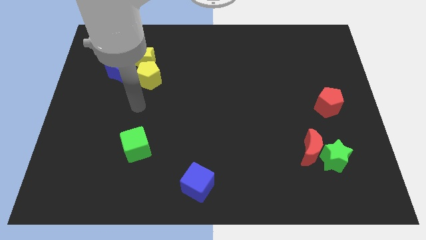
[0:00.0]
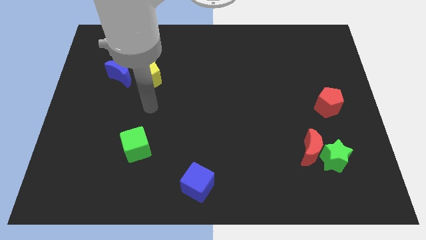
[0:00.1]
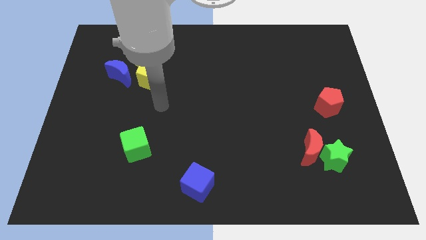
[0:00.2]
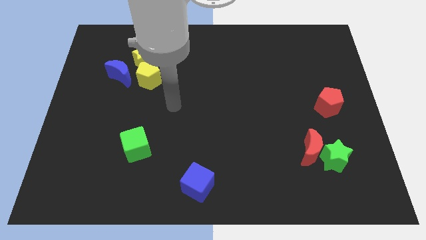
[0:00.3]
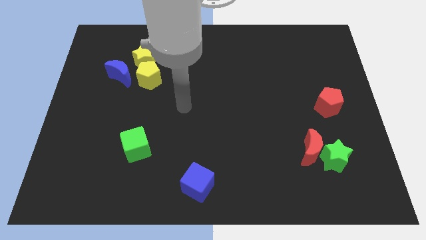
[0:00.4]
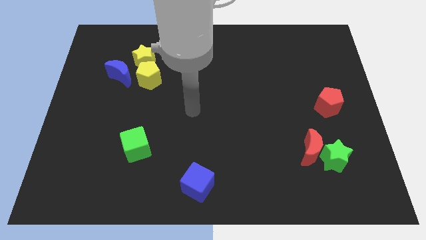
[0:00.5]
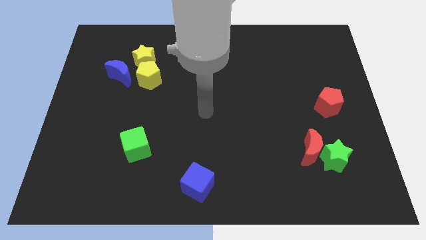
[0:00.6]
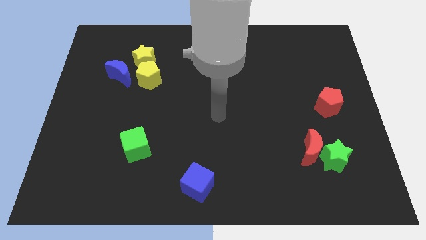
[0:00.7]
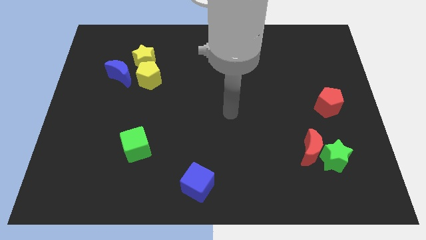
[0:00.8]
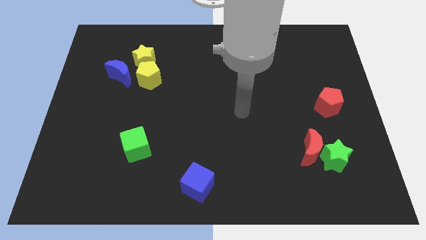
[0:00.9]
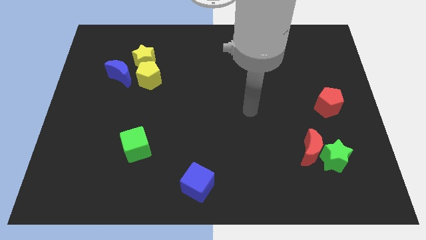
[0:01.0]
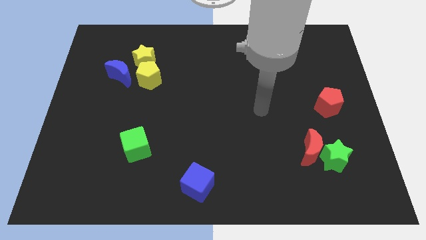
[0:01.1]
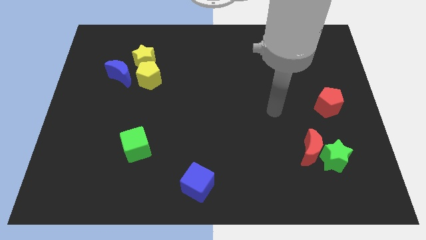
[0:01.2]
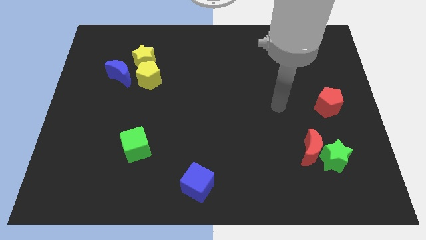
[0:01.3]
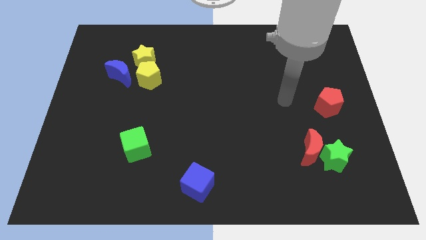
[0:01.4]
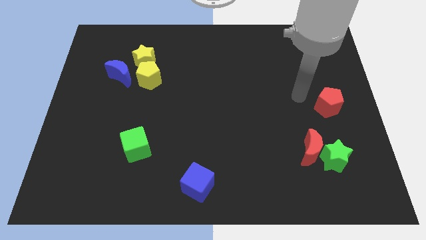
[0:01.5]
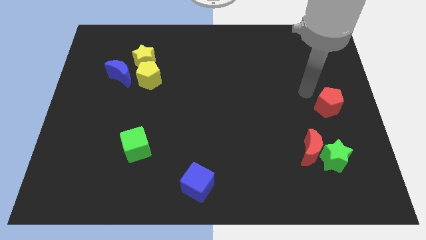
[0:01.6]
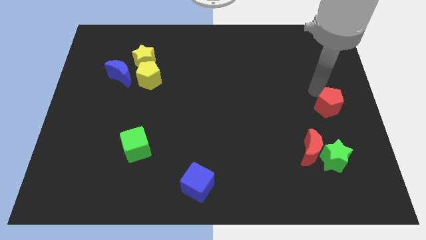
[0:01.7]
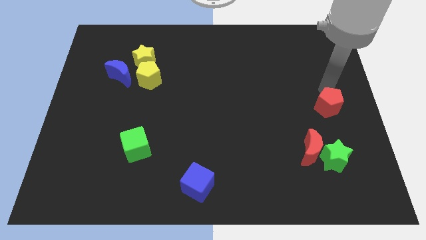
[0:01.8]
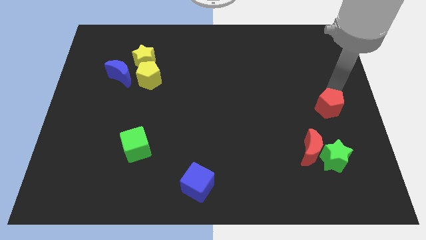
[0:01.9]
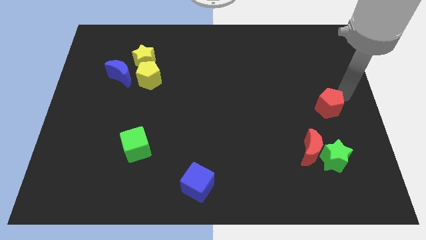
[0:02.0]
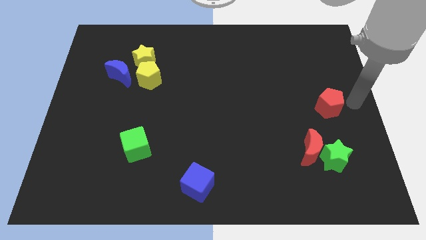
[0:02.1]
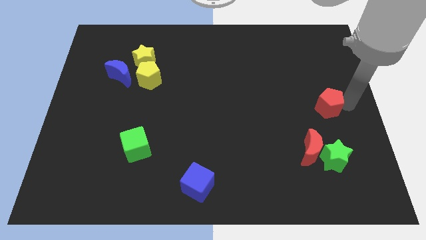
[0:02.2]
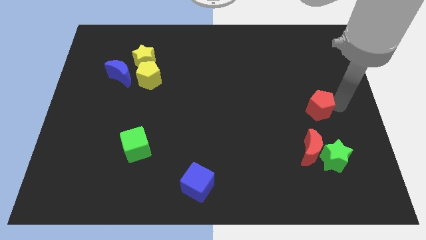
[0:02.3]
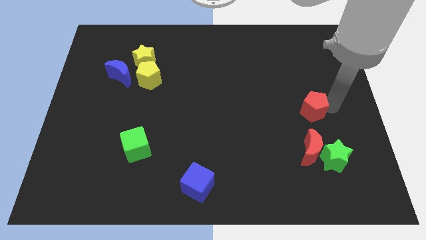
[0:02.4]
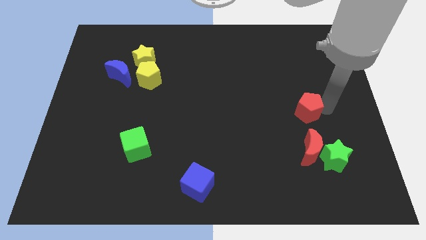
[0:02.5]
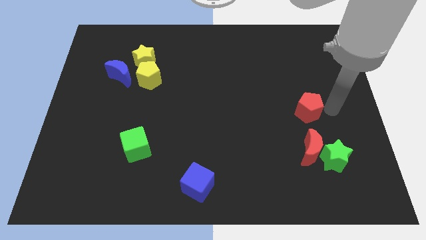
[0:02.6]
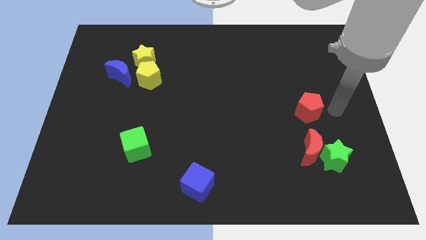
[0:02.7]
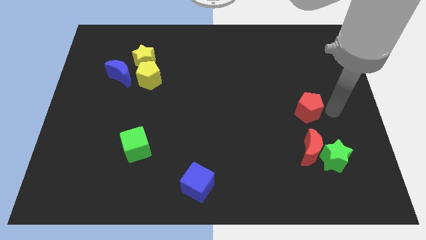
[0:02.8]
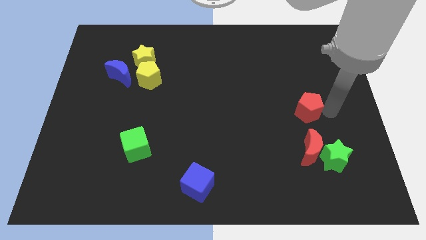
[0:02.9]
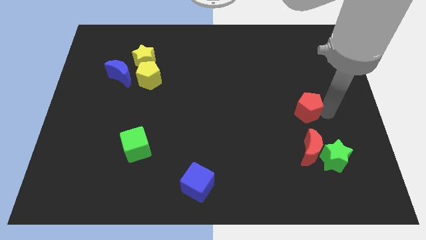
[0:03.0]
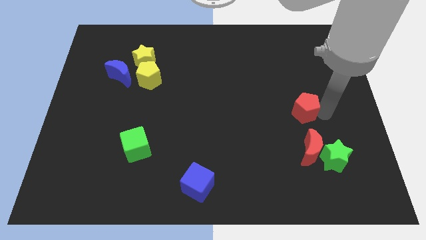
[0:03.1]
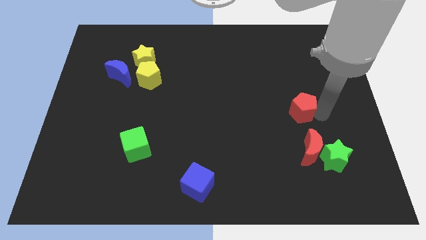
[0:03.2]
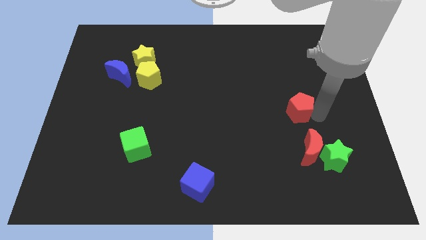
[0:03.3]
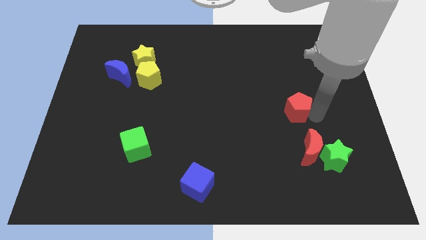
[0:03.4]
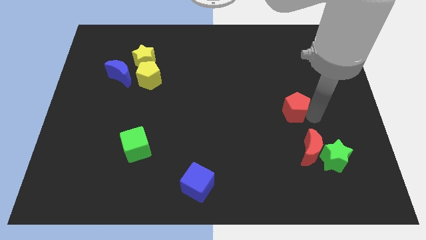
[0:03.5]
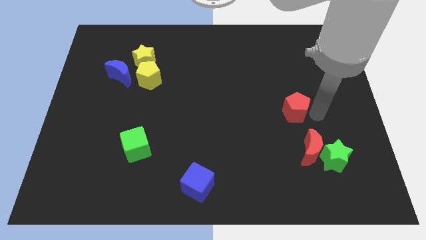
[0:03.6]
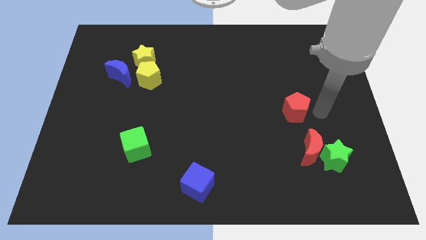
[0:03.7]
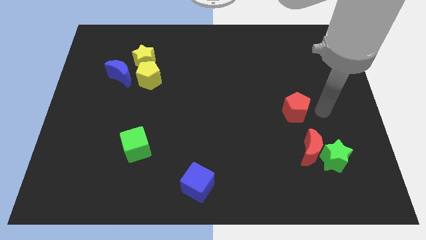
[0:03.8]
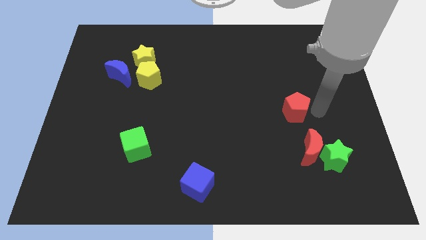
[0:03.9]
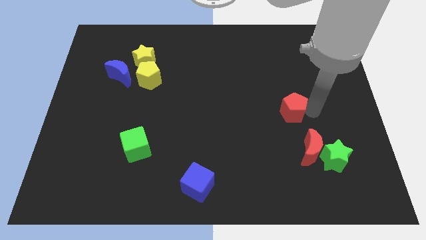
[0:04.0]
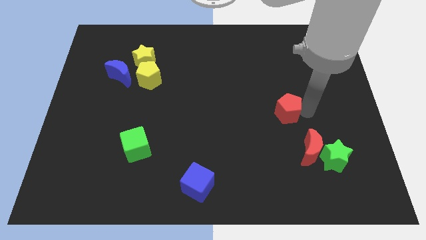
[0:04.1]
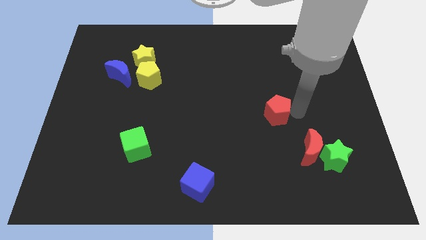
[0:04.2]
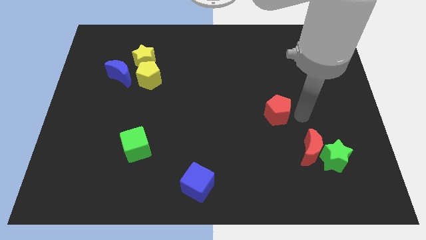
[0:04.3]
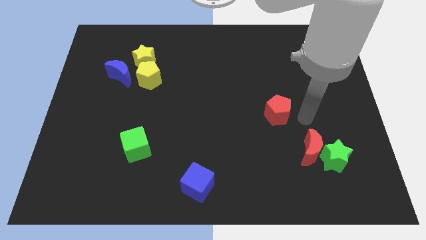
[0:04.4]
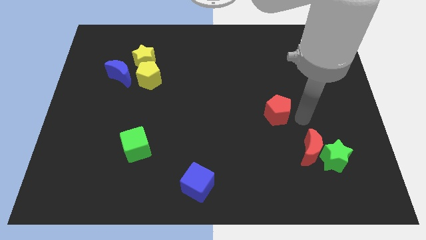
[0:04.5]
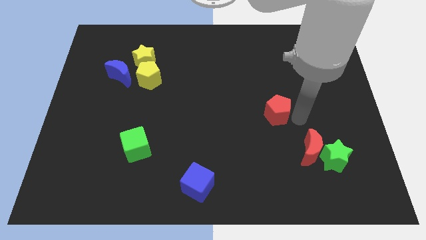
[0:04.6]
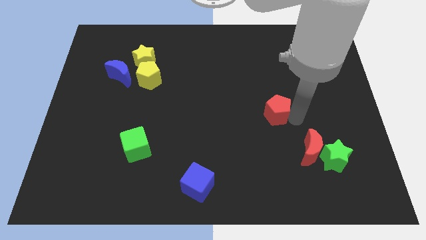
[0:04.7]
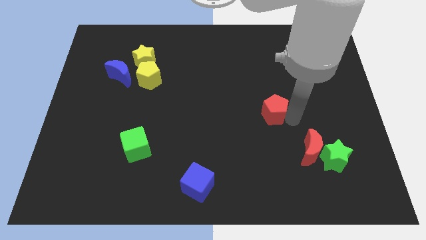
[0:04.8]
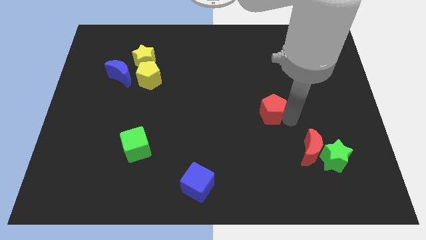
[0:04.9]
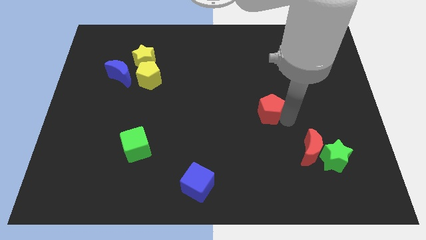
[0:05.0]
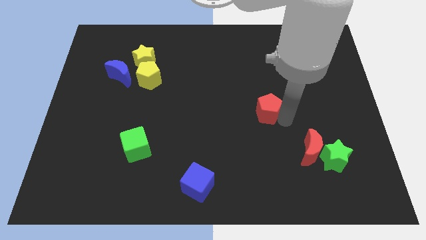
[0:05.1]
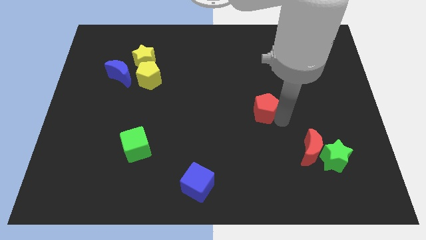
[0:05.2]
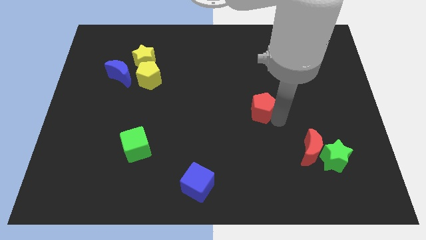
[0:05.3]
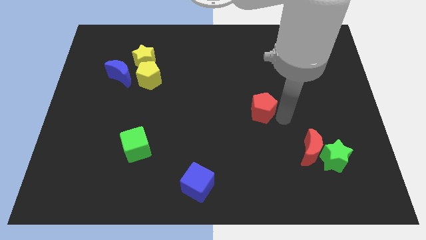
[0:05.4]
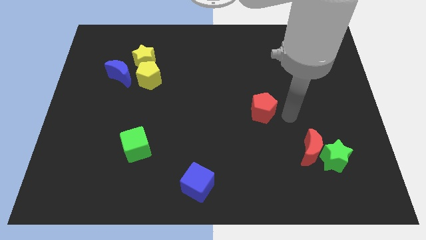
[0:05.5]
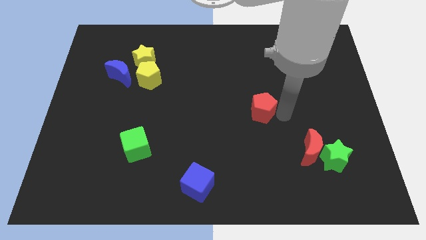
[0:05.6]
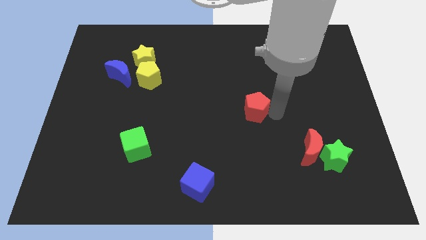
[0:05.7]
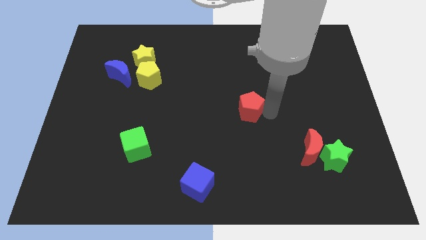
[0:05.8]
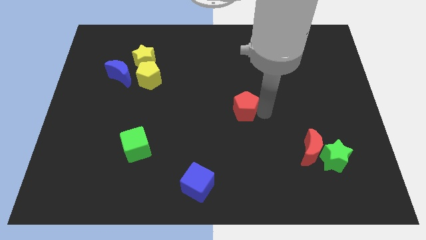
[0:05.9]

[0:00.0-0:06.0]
slide the red pentagon to the left

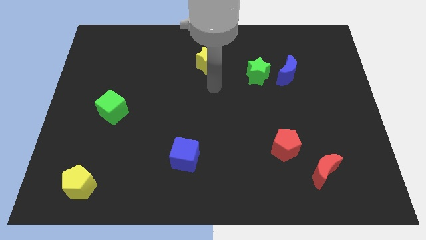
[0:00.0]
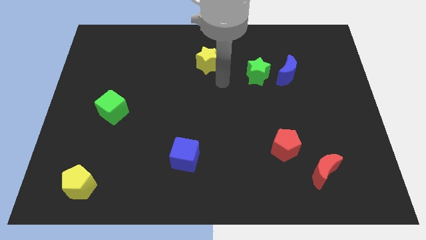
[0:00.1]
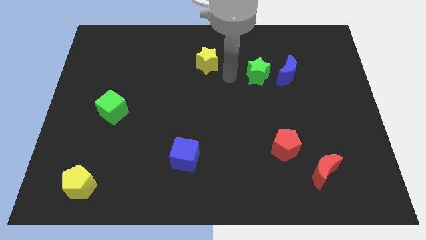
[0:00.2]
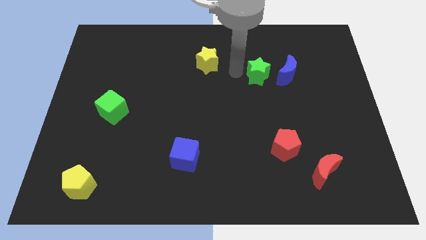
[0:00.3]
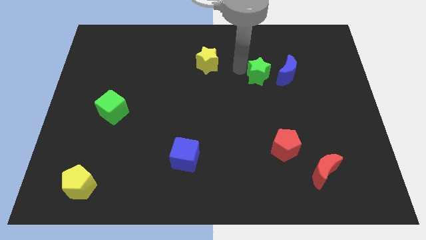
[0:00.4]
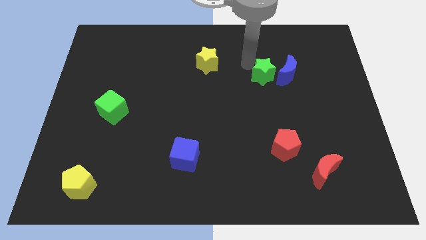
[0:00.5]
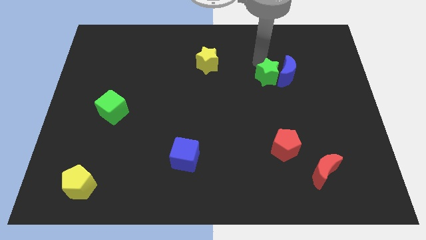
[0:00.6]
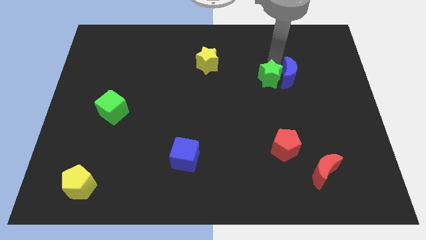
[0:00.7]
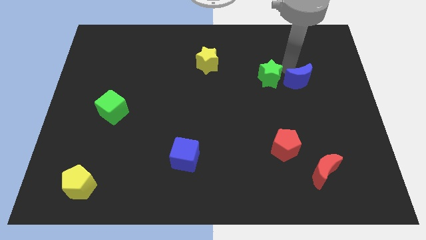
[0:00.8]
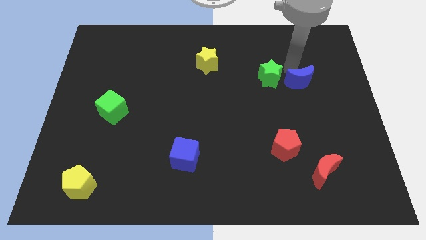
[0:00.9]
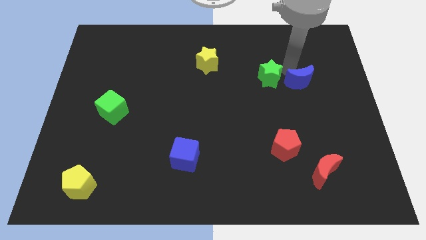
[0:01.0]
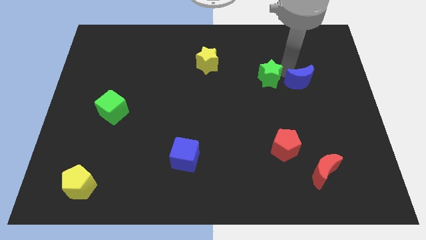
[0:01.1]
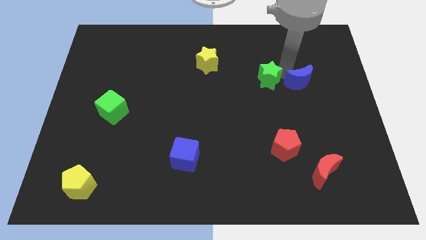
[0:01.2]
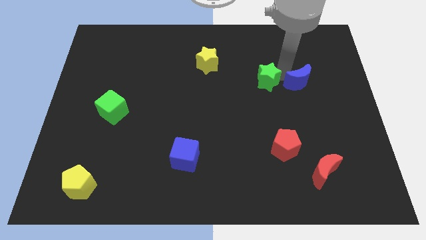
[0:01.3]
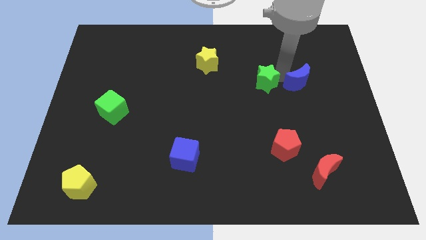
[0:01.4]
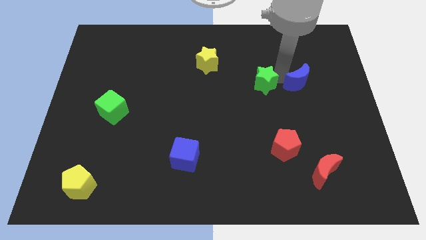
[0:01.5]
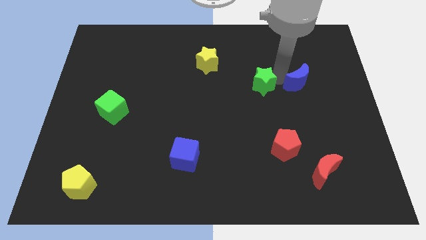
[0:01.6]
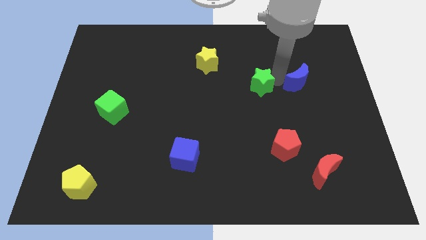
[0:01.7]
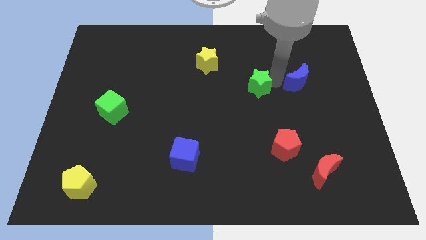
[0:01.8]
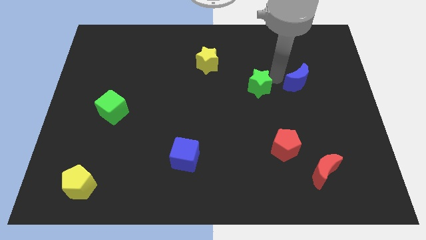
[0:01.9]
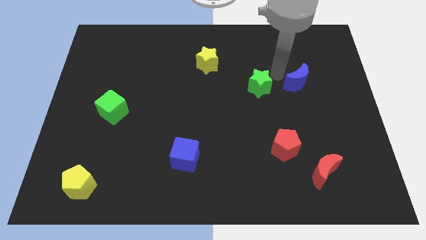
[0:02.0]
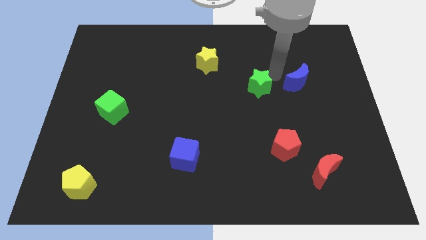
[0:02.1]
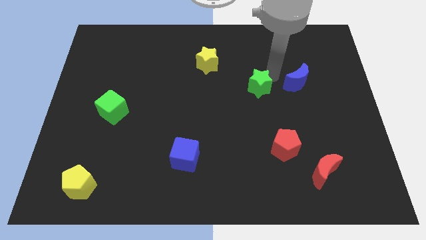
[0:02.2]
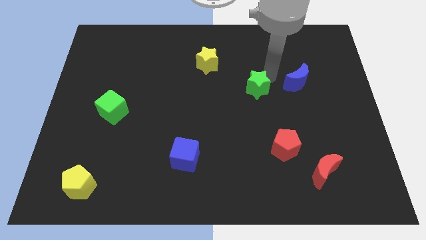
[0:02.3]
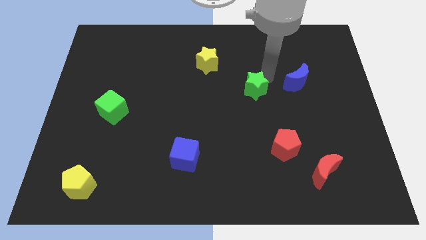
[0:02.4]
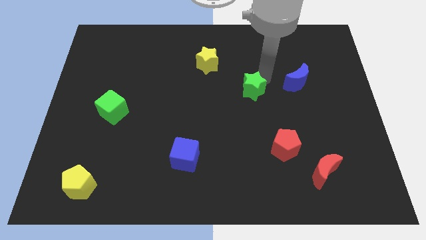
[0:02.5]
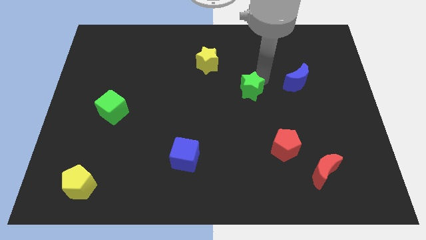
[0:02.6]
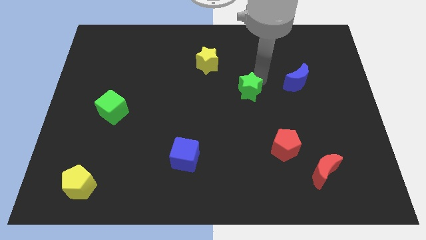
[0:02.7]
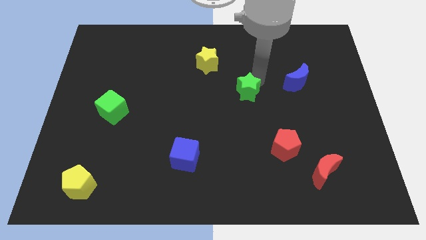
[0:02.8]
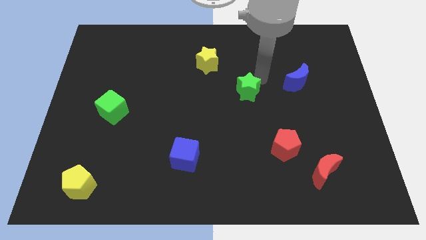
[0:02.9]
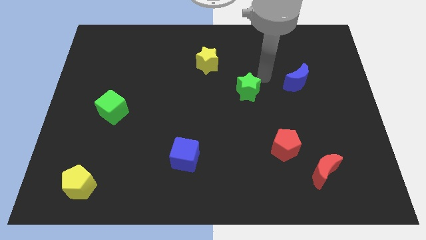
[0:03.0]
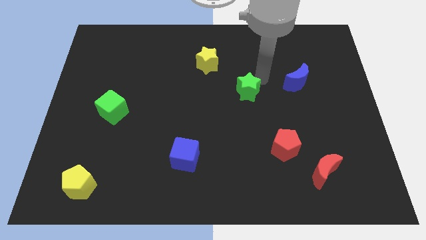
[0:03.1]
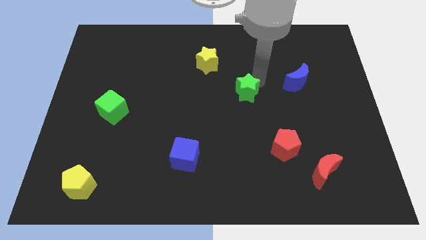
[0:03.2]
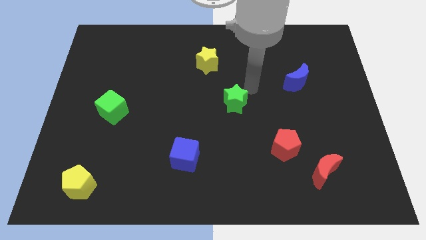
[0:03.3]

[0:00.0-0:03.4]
slightly push the green star downwards and left diagonally
